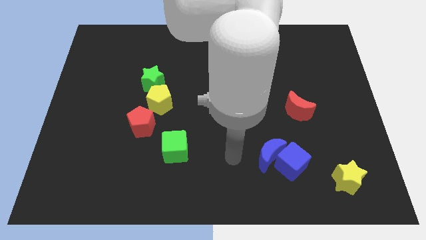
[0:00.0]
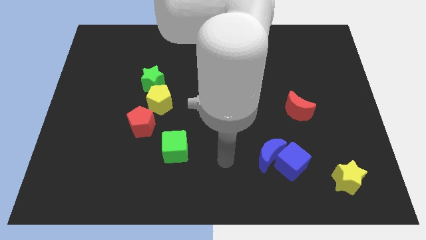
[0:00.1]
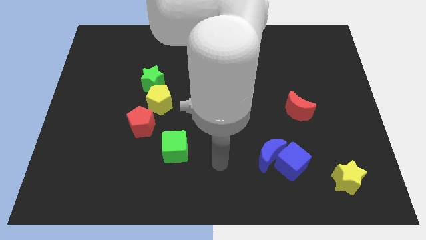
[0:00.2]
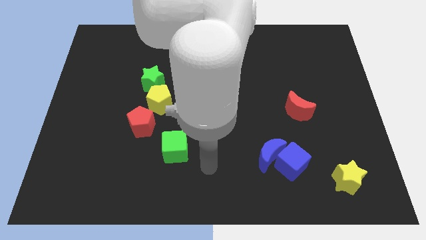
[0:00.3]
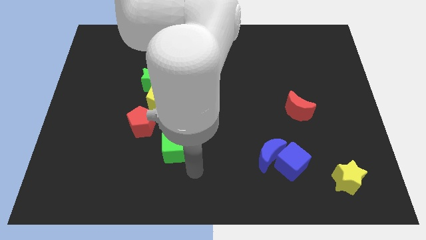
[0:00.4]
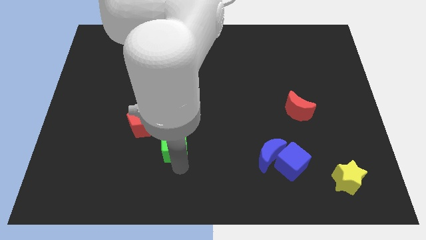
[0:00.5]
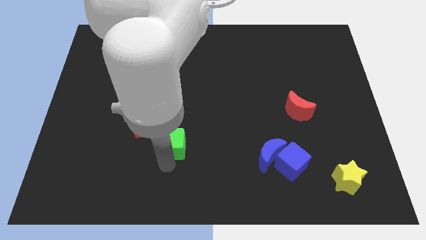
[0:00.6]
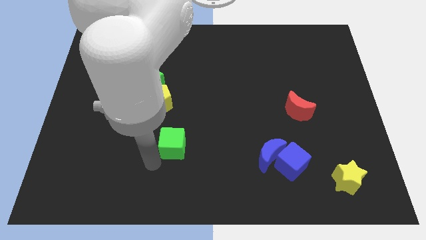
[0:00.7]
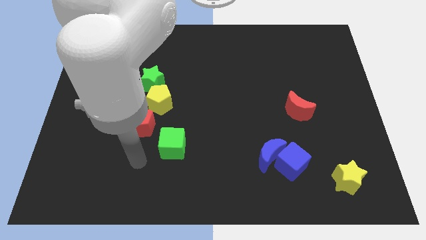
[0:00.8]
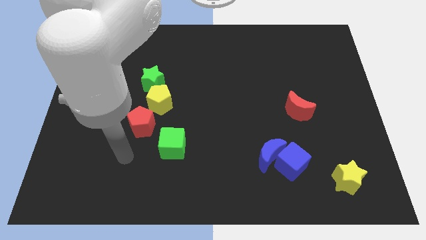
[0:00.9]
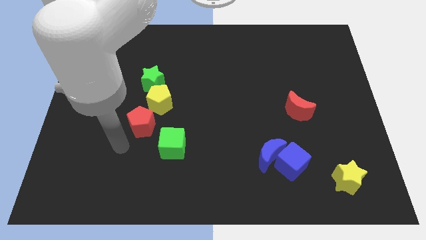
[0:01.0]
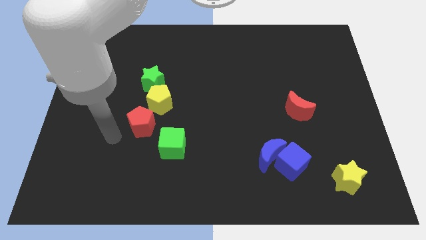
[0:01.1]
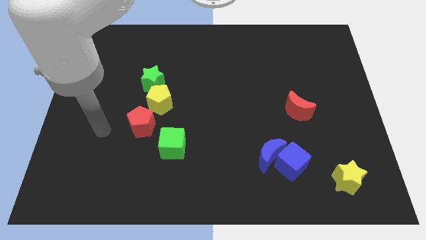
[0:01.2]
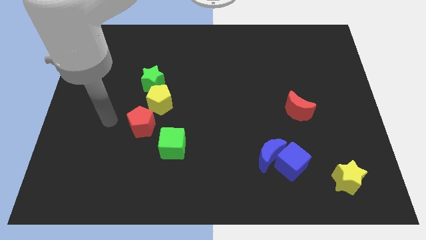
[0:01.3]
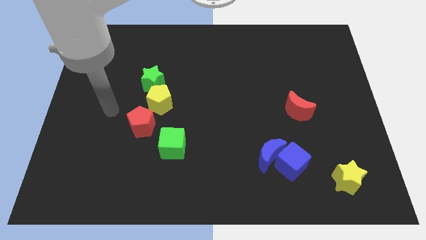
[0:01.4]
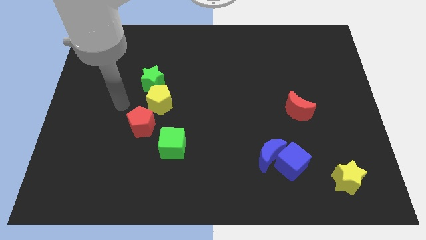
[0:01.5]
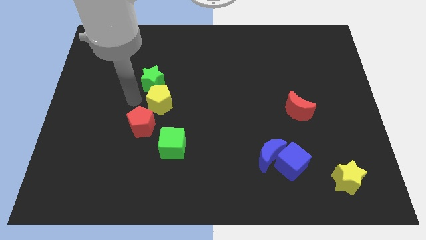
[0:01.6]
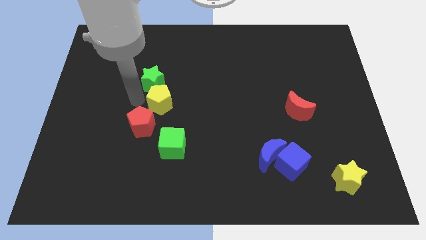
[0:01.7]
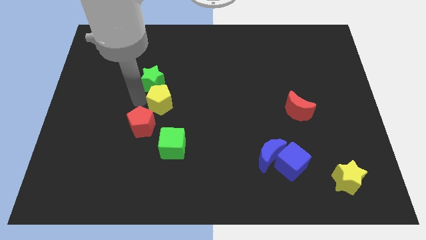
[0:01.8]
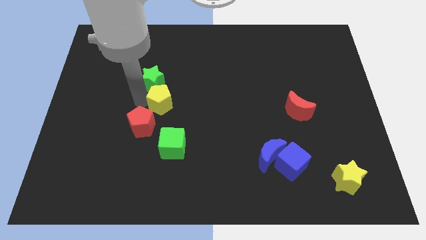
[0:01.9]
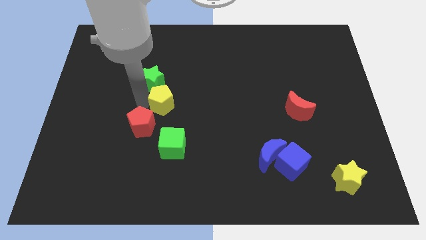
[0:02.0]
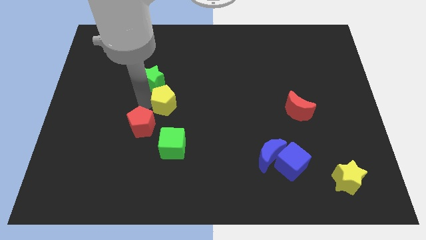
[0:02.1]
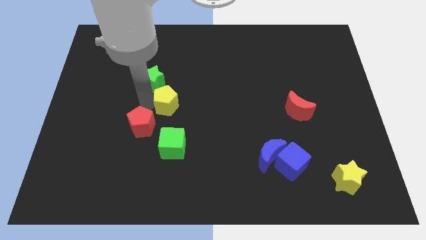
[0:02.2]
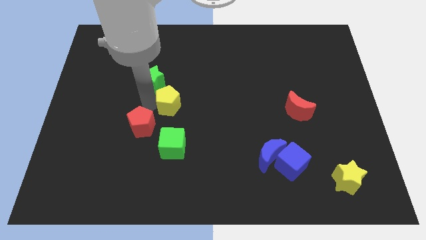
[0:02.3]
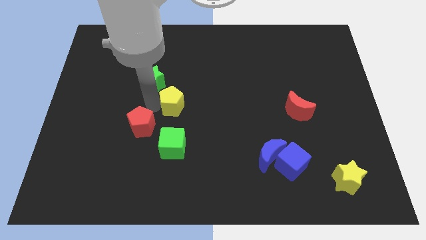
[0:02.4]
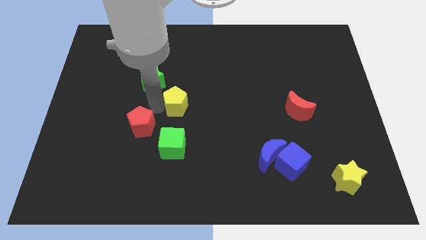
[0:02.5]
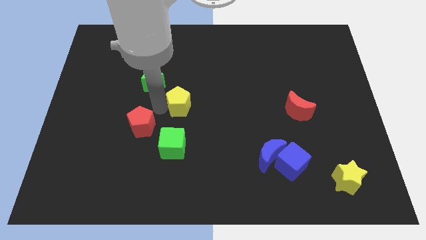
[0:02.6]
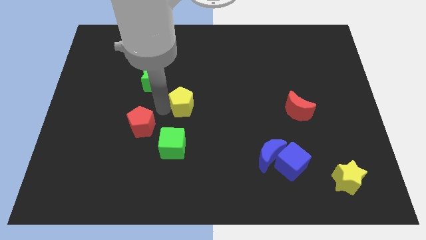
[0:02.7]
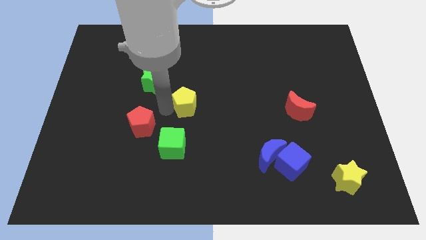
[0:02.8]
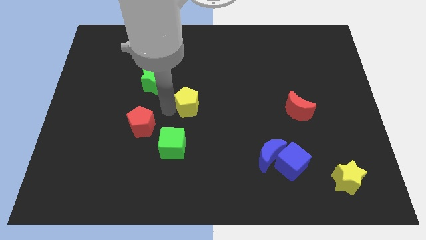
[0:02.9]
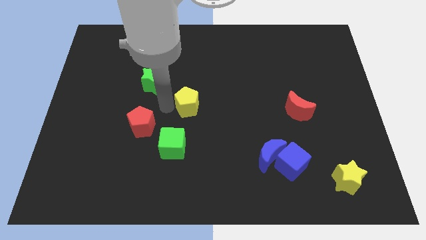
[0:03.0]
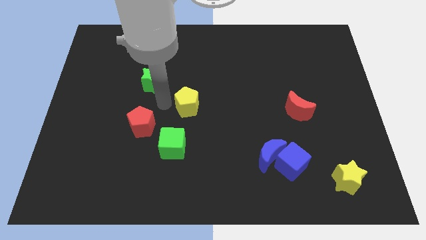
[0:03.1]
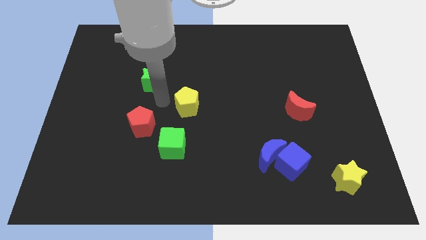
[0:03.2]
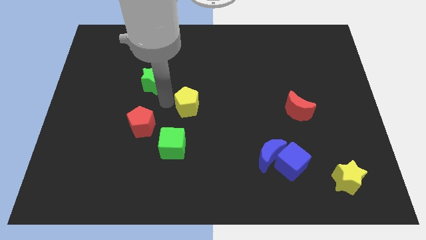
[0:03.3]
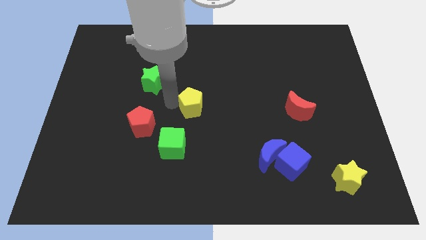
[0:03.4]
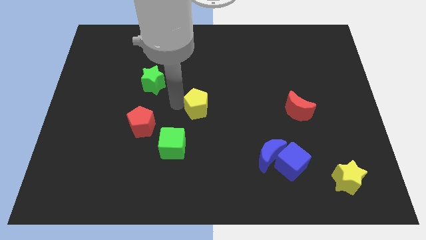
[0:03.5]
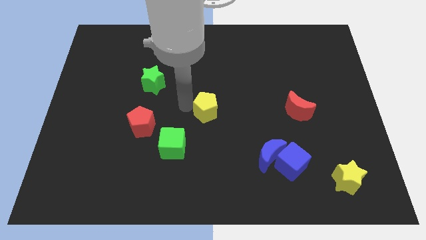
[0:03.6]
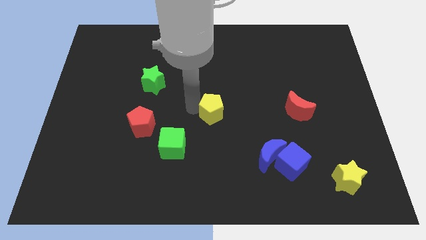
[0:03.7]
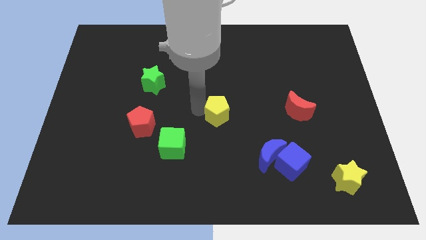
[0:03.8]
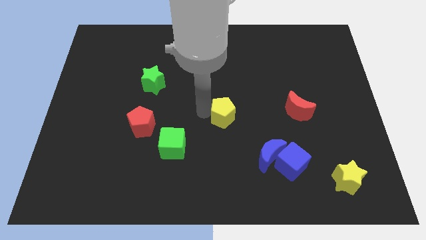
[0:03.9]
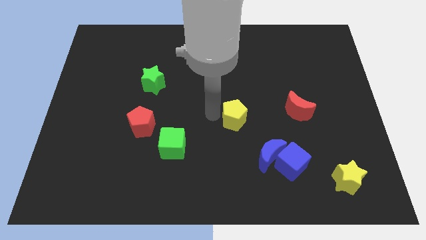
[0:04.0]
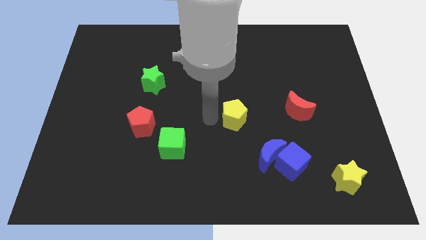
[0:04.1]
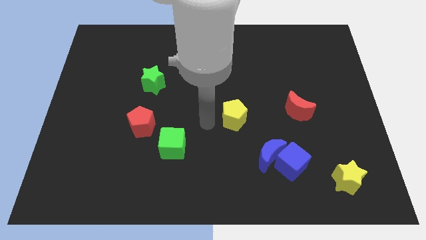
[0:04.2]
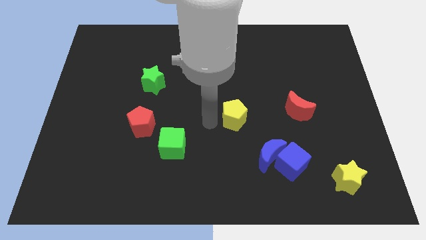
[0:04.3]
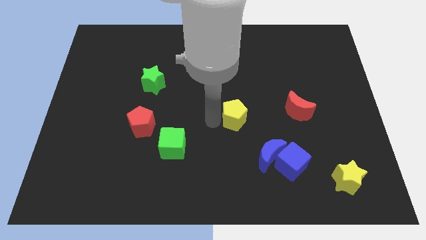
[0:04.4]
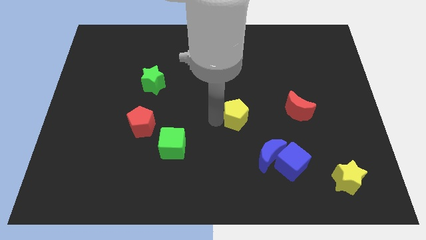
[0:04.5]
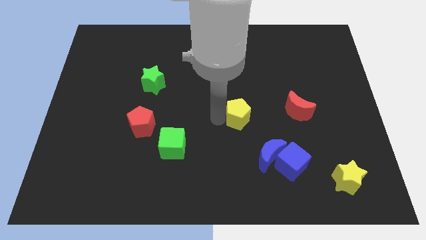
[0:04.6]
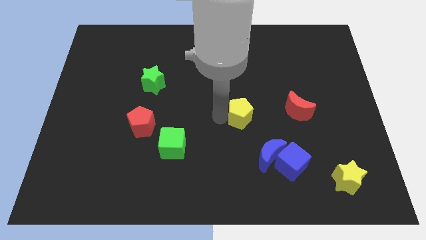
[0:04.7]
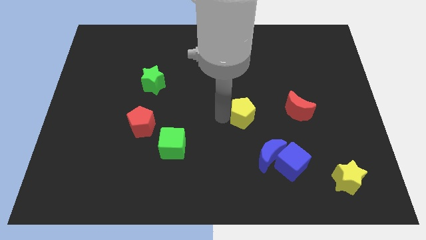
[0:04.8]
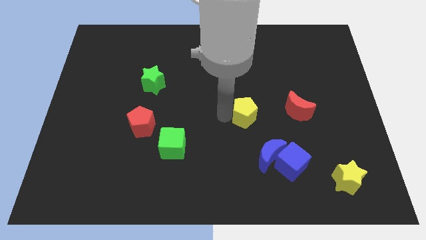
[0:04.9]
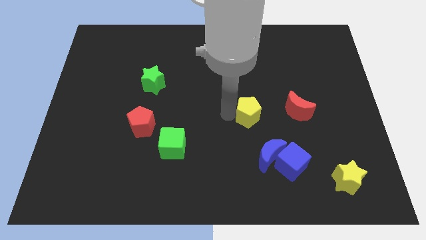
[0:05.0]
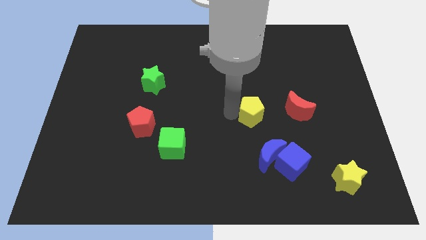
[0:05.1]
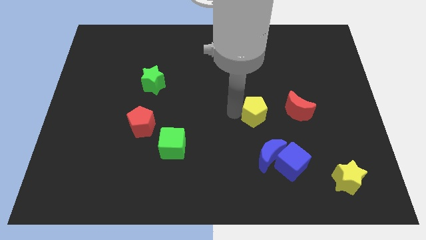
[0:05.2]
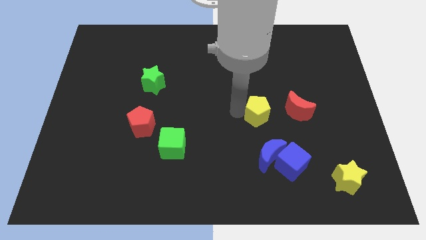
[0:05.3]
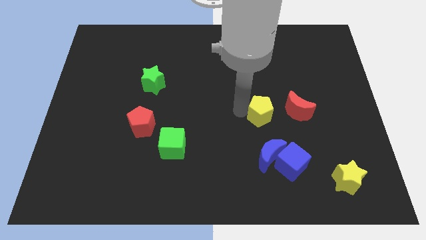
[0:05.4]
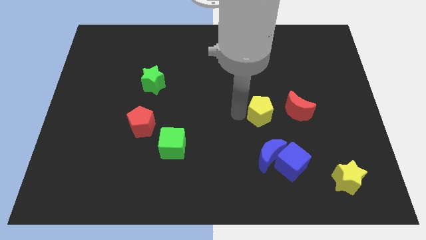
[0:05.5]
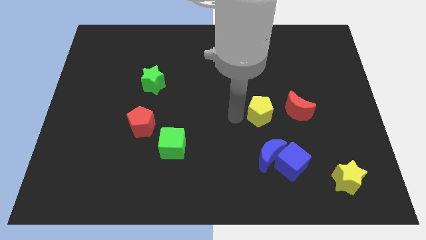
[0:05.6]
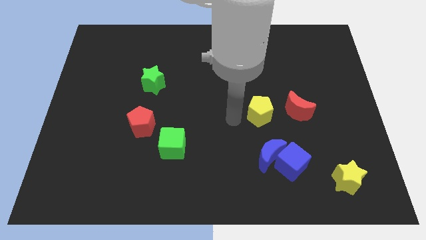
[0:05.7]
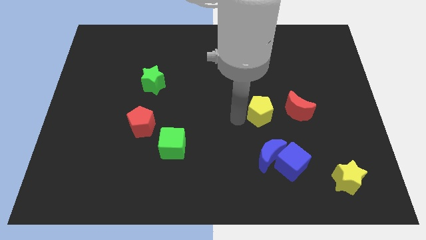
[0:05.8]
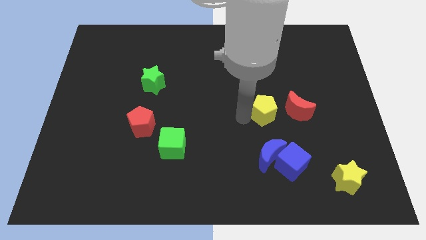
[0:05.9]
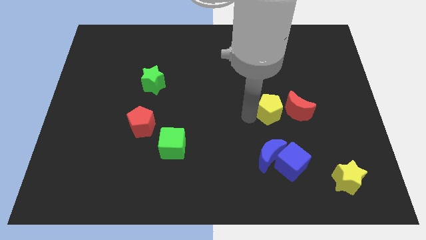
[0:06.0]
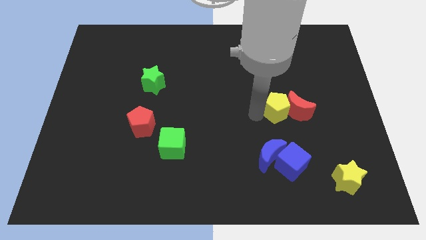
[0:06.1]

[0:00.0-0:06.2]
put the yellow pentagon close to the red moon
